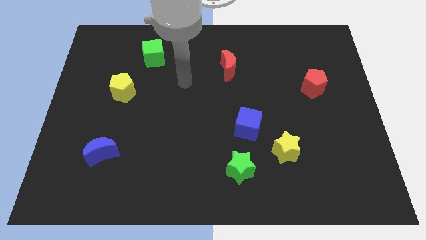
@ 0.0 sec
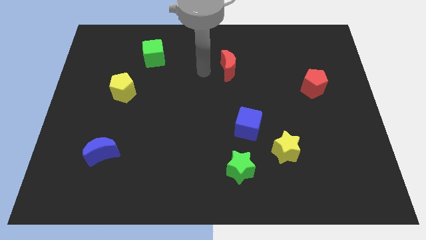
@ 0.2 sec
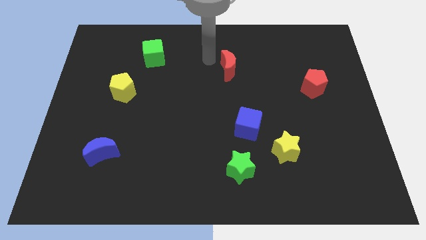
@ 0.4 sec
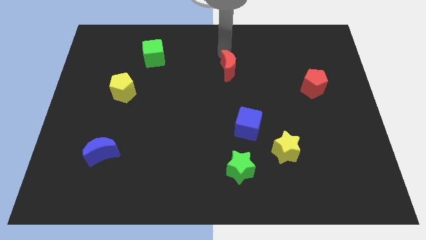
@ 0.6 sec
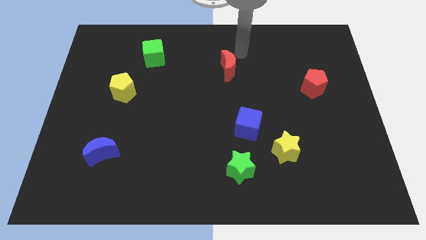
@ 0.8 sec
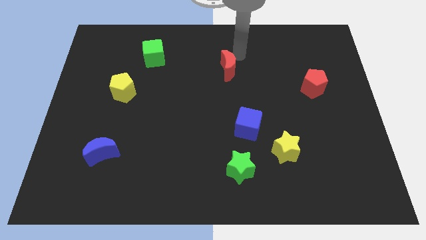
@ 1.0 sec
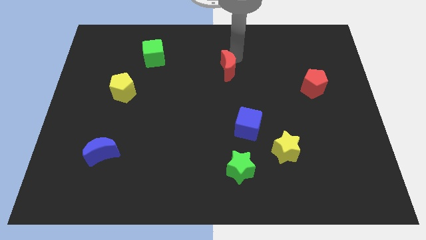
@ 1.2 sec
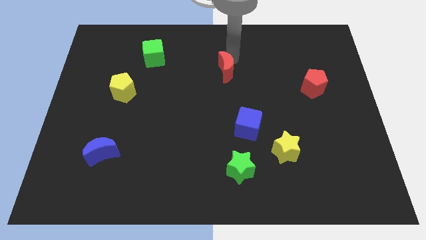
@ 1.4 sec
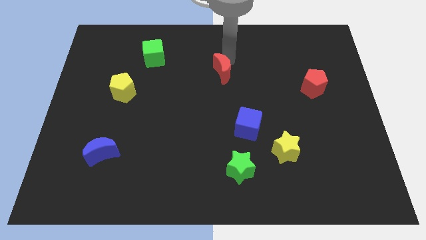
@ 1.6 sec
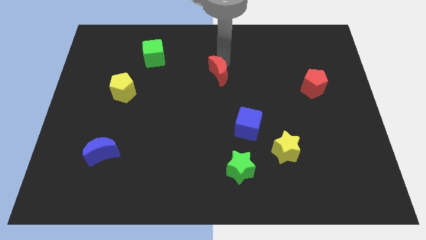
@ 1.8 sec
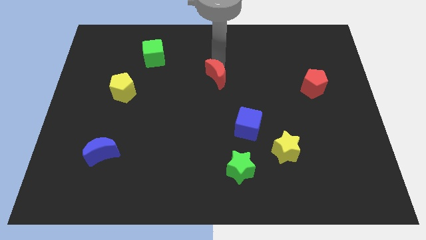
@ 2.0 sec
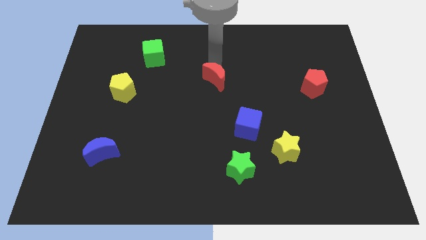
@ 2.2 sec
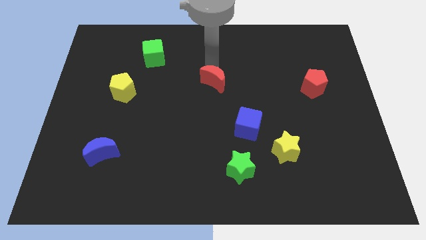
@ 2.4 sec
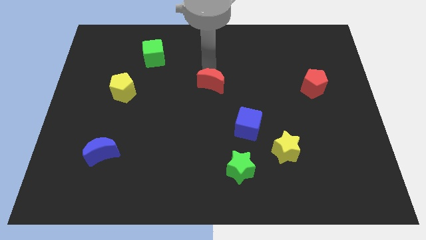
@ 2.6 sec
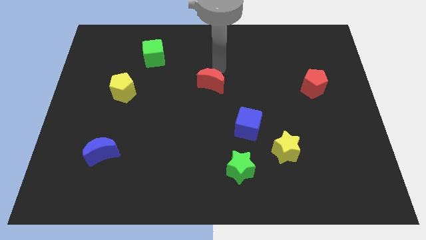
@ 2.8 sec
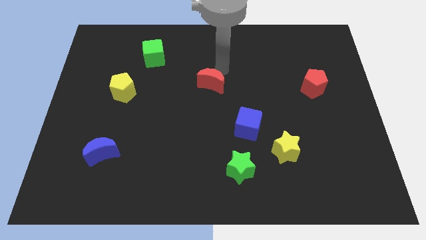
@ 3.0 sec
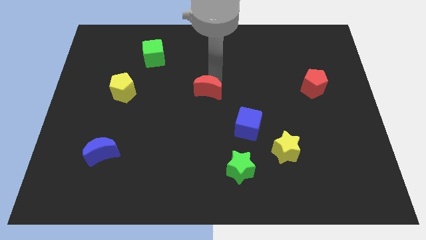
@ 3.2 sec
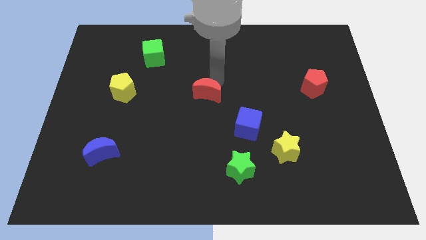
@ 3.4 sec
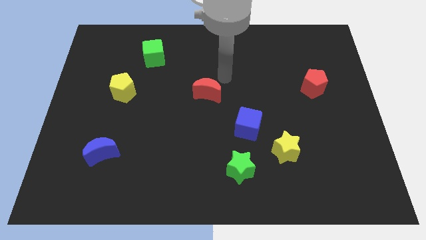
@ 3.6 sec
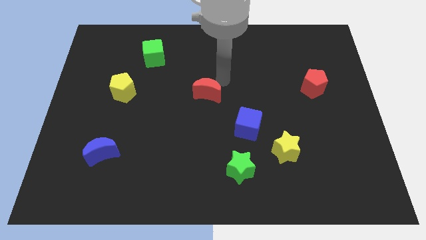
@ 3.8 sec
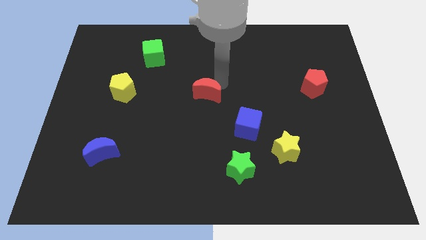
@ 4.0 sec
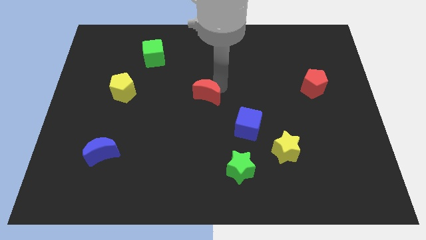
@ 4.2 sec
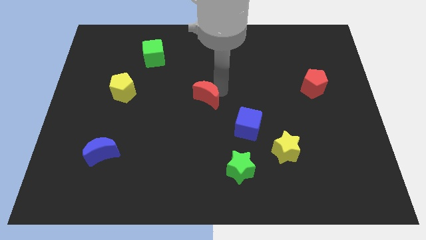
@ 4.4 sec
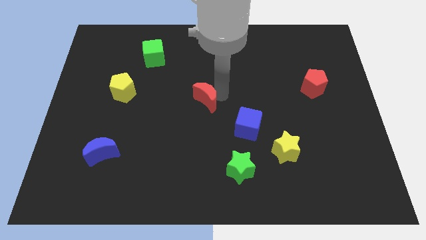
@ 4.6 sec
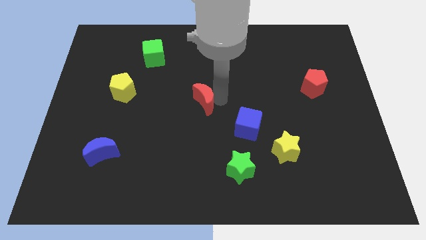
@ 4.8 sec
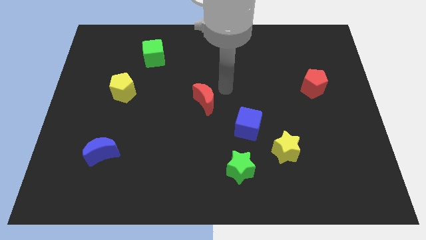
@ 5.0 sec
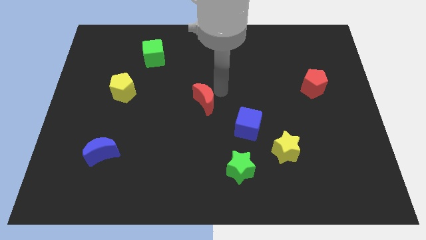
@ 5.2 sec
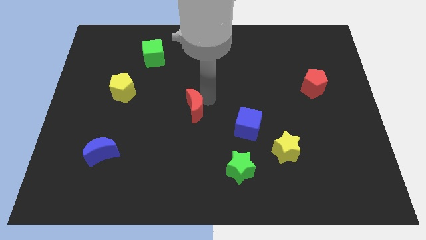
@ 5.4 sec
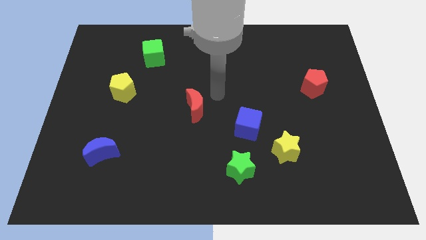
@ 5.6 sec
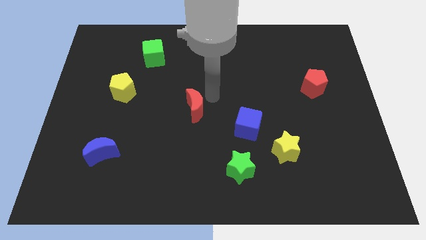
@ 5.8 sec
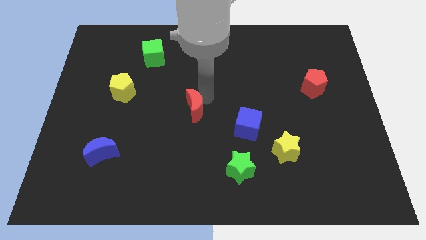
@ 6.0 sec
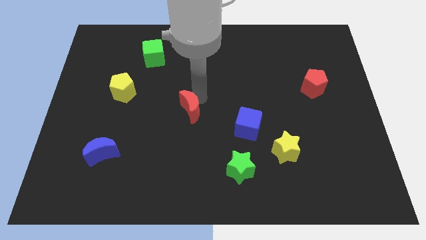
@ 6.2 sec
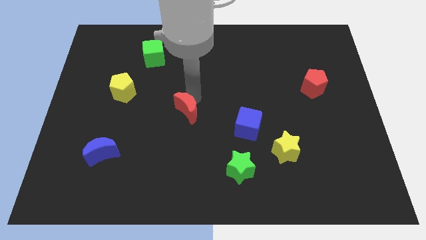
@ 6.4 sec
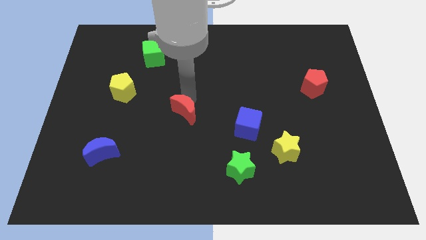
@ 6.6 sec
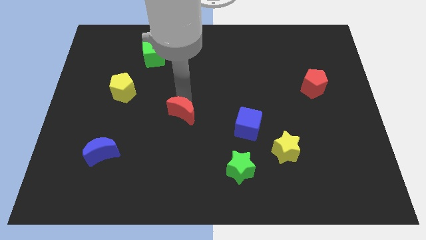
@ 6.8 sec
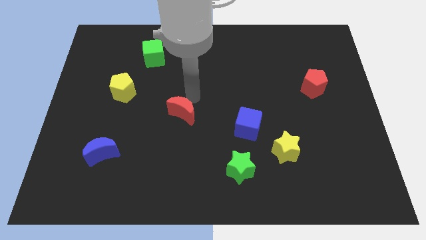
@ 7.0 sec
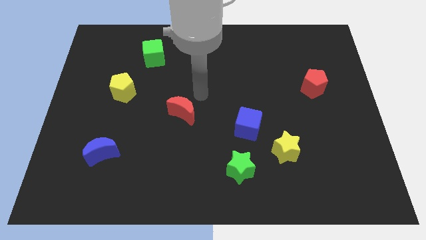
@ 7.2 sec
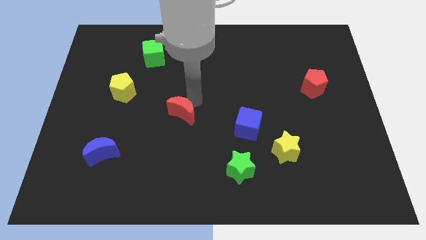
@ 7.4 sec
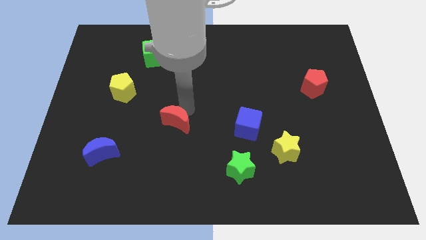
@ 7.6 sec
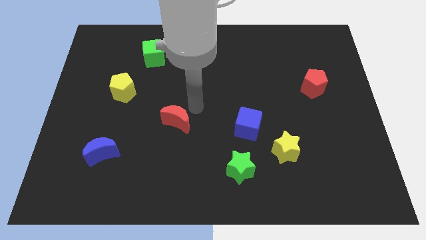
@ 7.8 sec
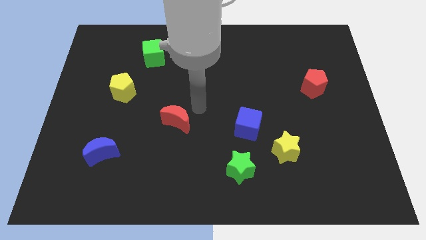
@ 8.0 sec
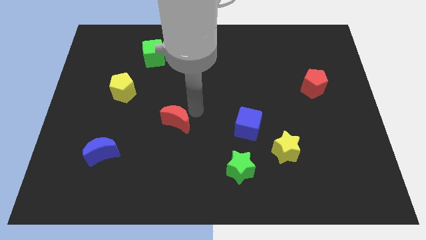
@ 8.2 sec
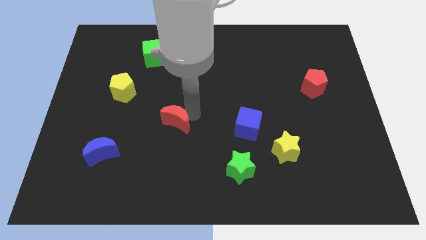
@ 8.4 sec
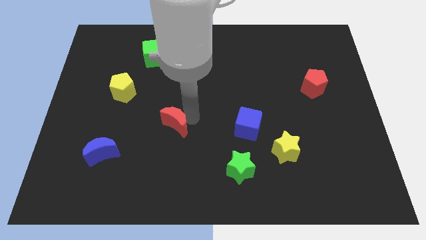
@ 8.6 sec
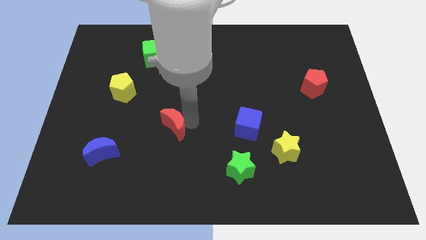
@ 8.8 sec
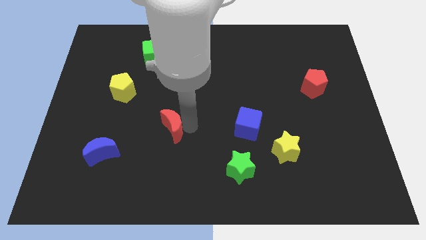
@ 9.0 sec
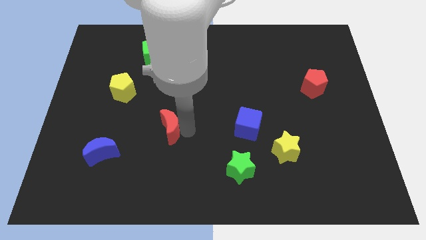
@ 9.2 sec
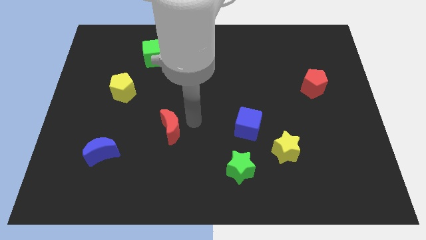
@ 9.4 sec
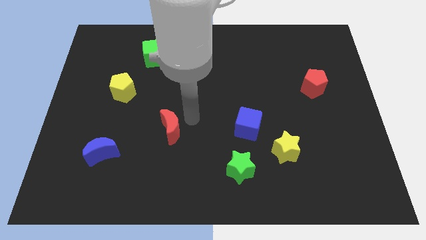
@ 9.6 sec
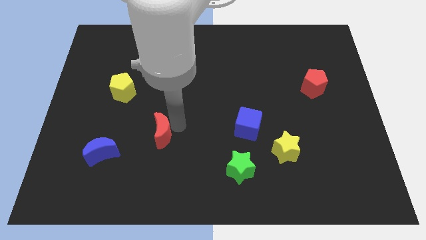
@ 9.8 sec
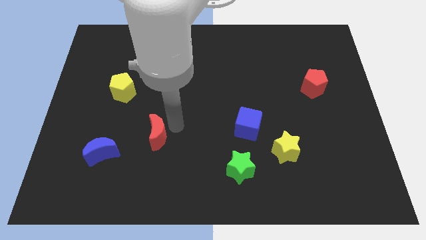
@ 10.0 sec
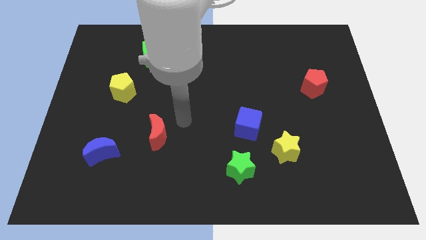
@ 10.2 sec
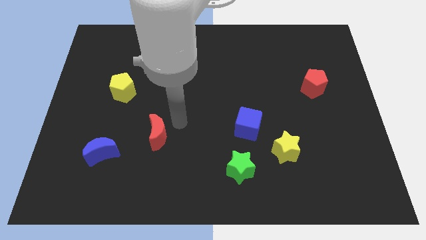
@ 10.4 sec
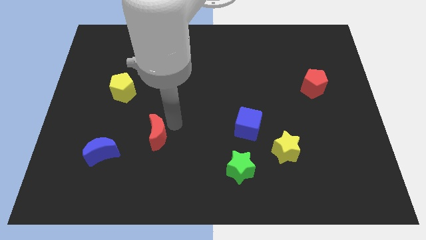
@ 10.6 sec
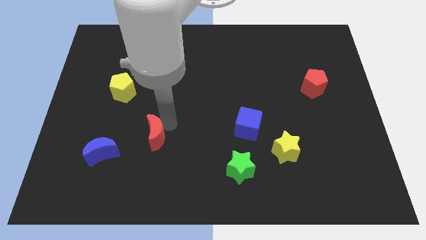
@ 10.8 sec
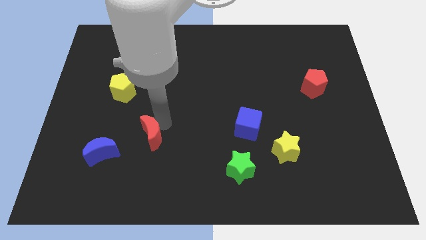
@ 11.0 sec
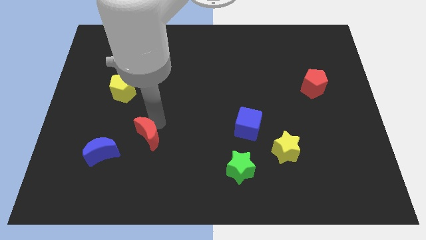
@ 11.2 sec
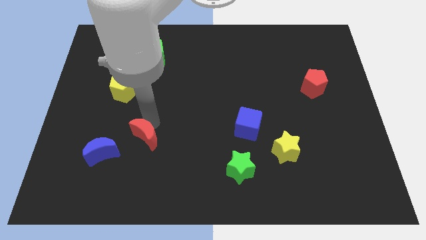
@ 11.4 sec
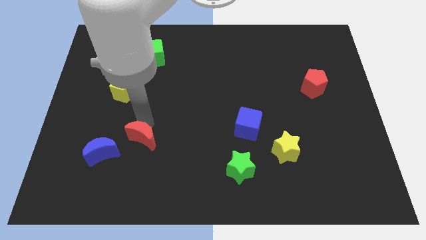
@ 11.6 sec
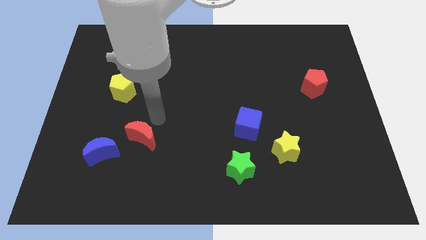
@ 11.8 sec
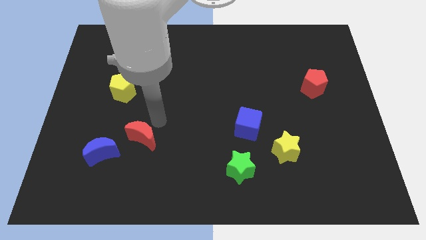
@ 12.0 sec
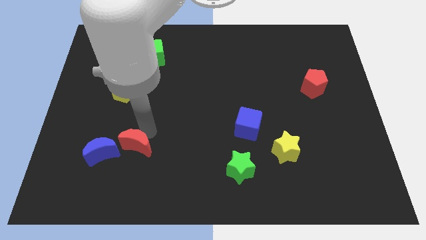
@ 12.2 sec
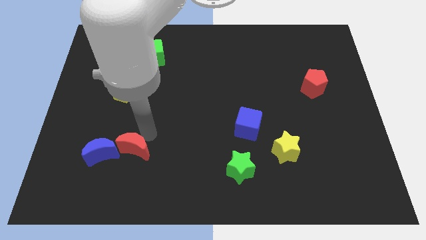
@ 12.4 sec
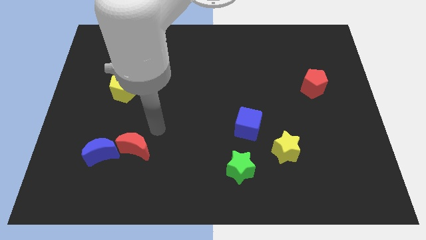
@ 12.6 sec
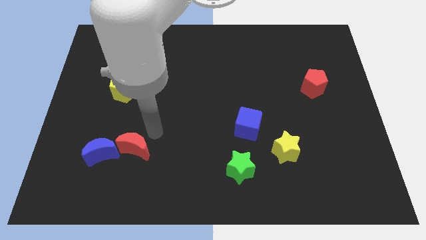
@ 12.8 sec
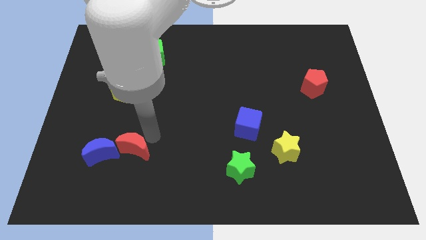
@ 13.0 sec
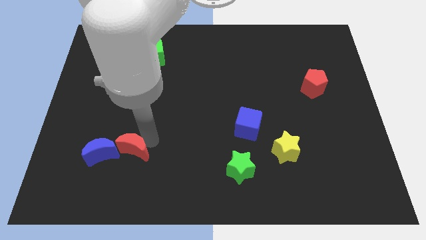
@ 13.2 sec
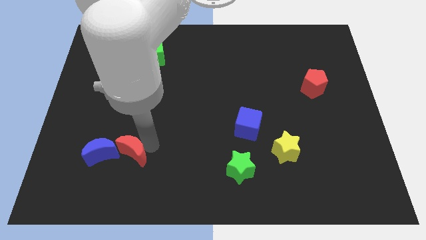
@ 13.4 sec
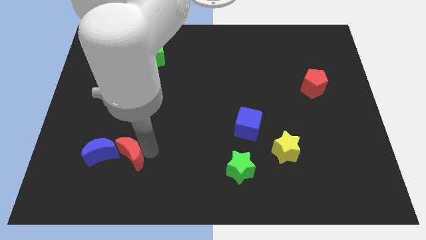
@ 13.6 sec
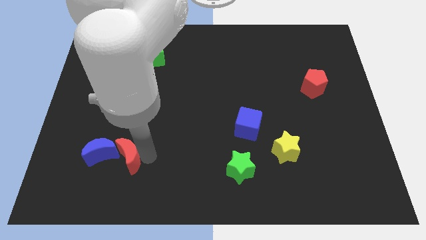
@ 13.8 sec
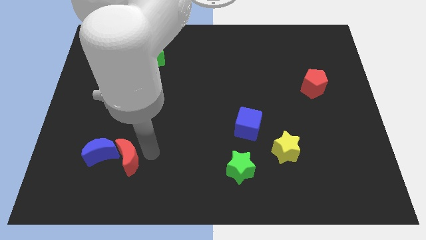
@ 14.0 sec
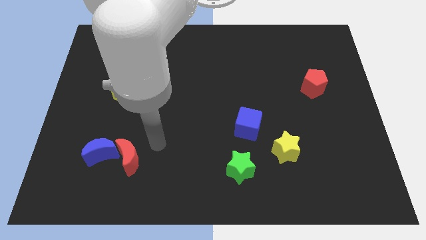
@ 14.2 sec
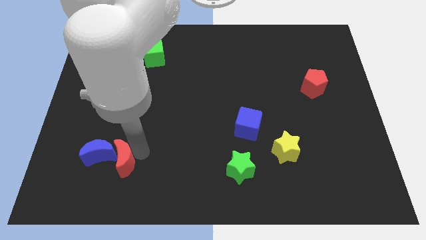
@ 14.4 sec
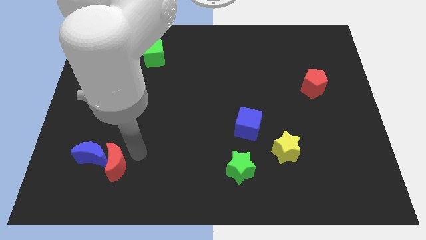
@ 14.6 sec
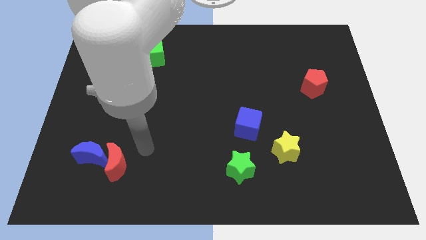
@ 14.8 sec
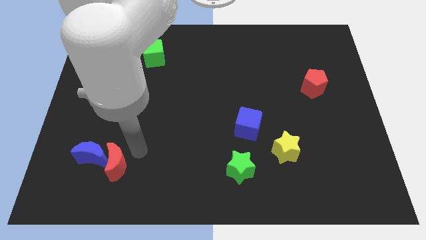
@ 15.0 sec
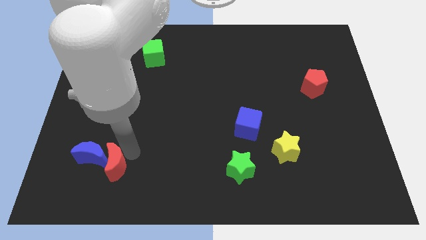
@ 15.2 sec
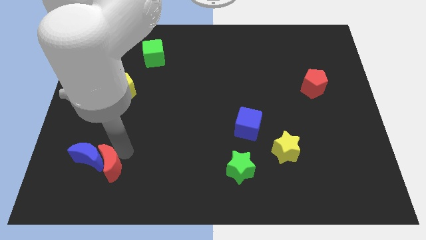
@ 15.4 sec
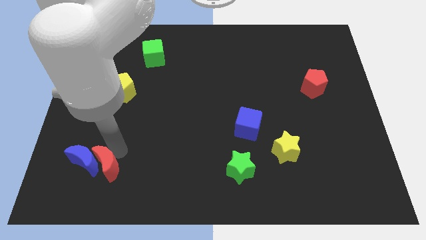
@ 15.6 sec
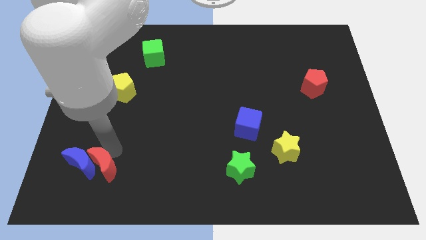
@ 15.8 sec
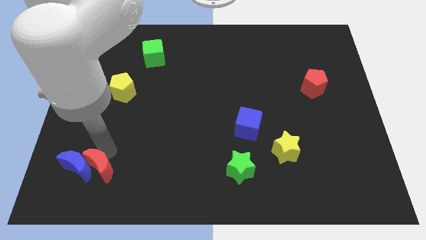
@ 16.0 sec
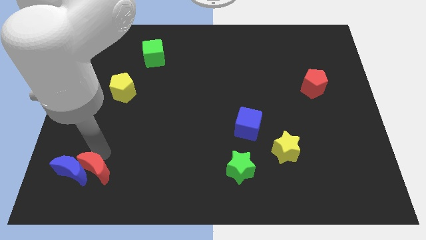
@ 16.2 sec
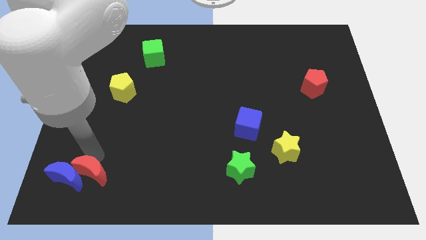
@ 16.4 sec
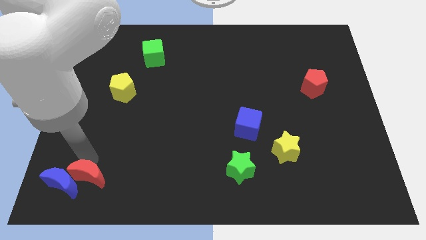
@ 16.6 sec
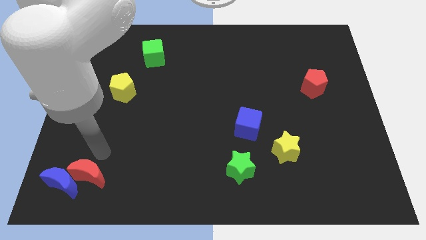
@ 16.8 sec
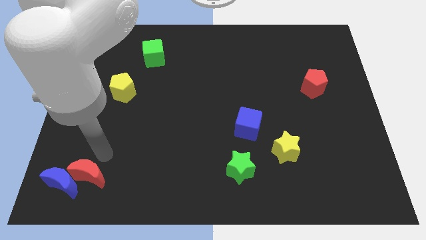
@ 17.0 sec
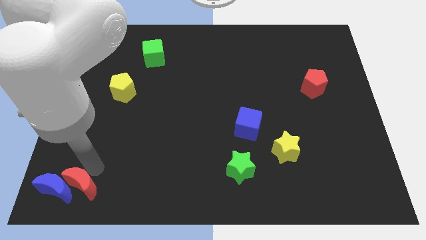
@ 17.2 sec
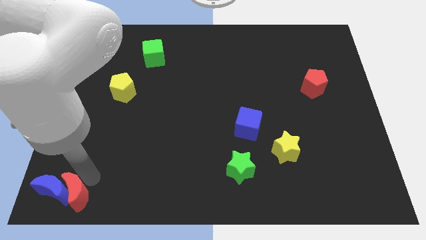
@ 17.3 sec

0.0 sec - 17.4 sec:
move the red moon to the bottom left of the board
